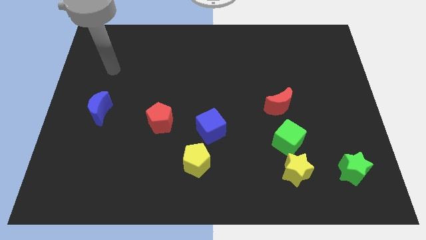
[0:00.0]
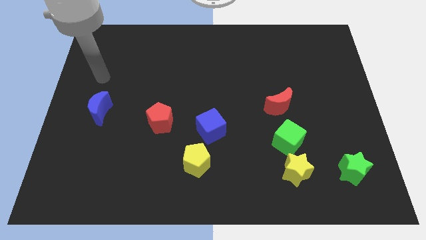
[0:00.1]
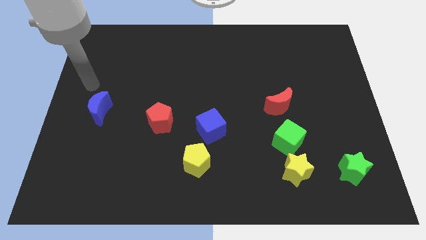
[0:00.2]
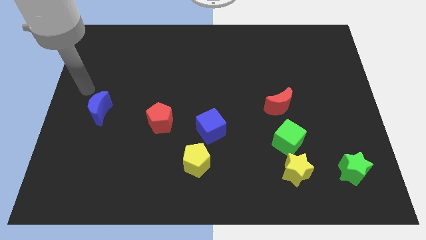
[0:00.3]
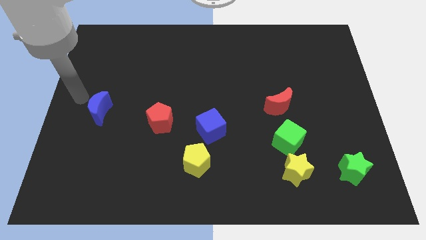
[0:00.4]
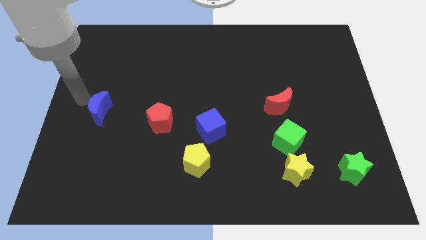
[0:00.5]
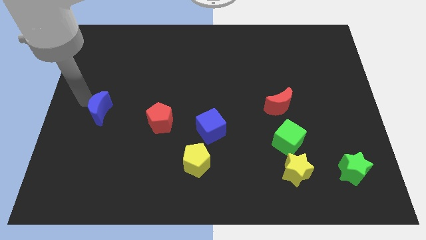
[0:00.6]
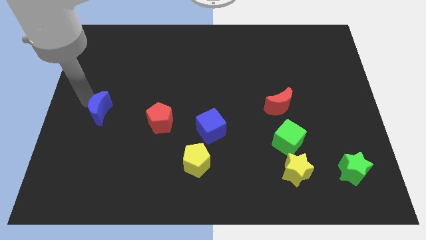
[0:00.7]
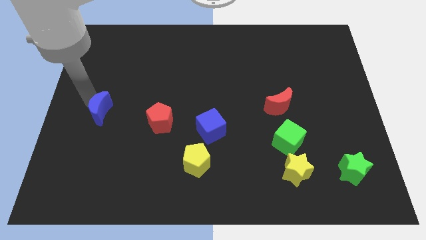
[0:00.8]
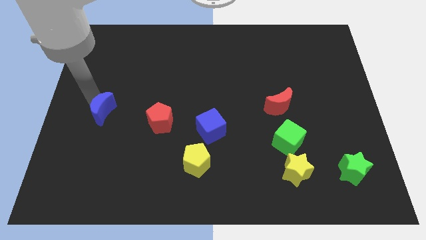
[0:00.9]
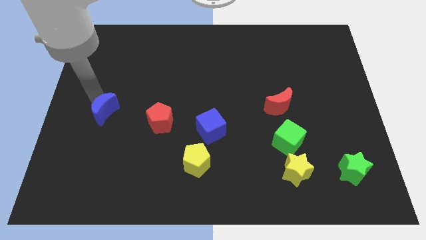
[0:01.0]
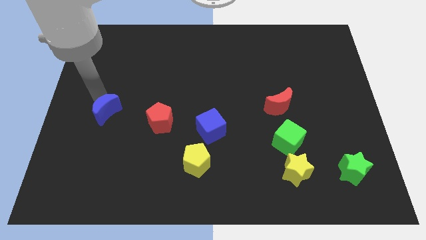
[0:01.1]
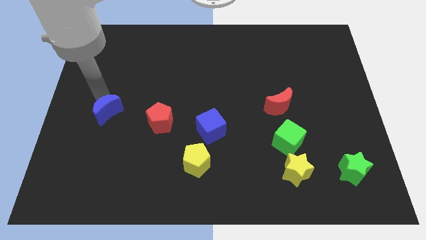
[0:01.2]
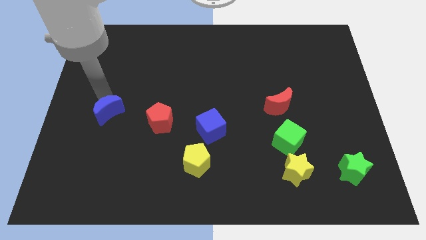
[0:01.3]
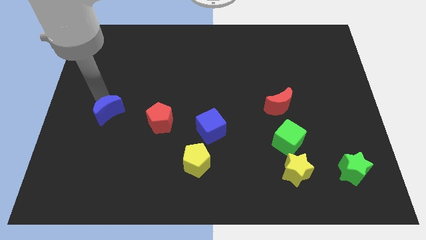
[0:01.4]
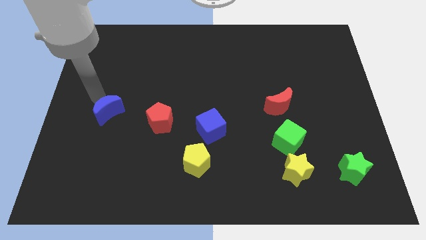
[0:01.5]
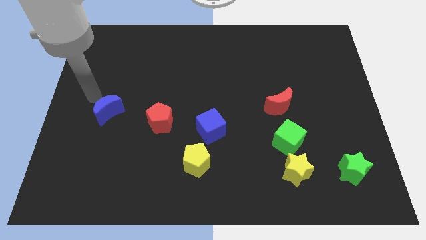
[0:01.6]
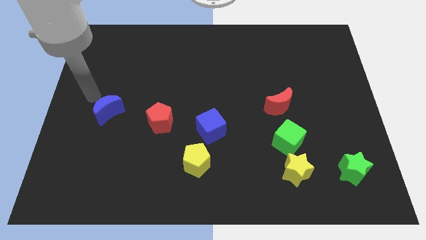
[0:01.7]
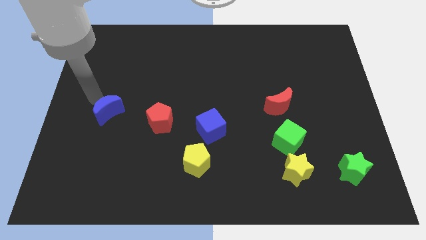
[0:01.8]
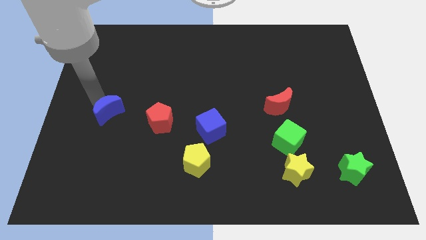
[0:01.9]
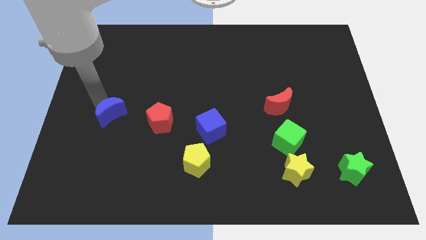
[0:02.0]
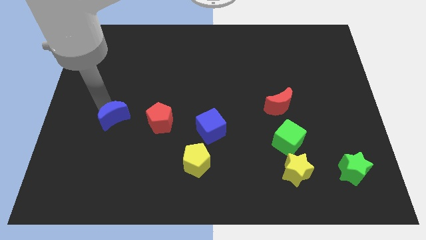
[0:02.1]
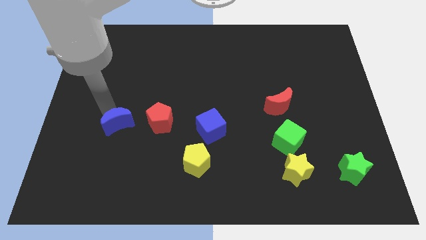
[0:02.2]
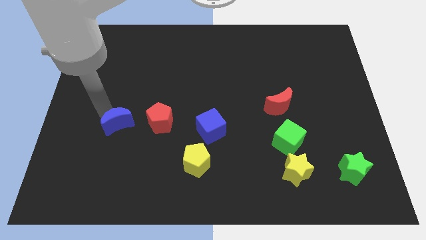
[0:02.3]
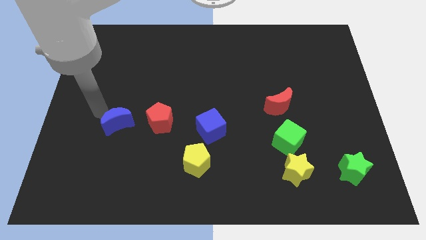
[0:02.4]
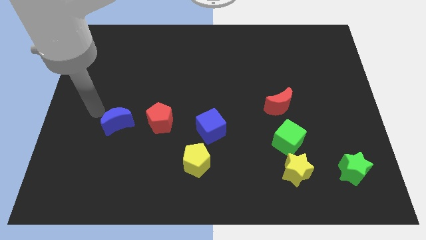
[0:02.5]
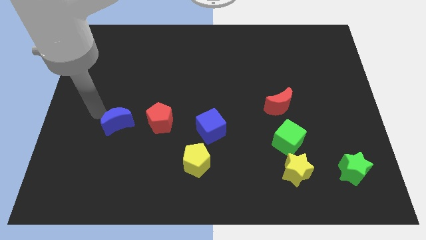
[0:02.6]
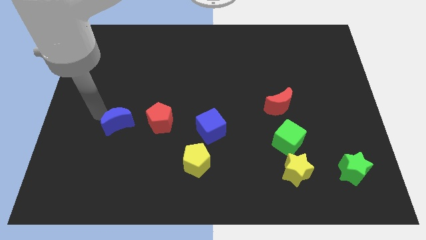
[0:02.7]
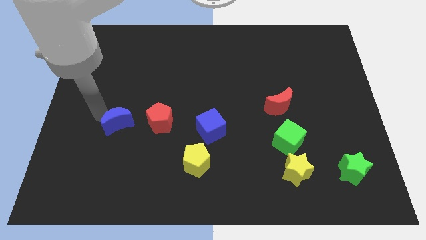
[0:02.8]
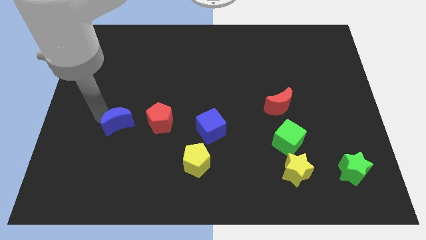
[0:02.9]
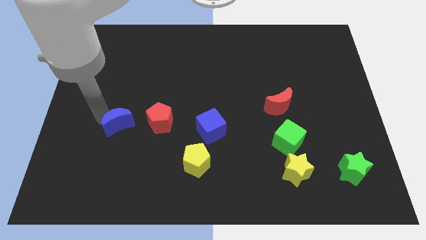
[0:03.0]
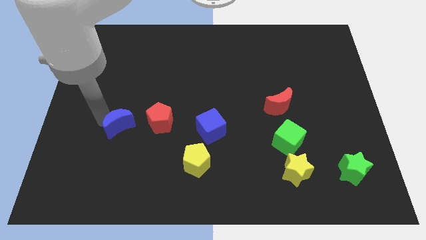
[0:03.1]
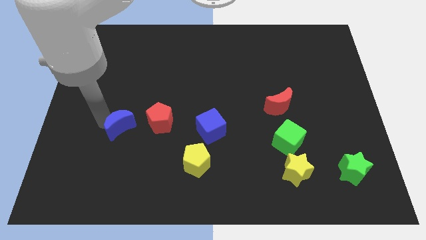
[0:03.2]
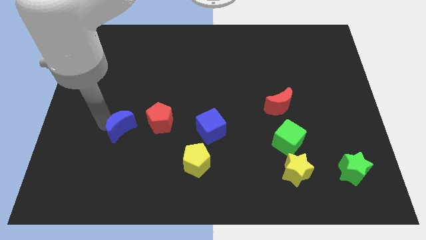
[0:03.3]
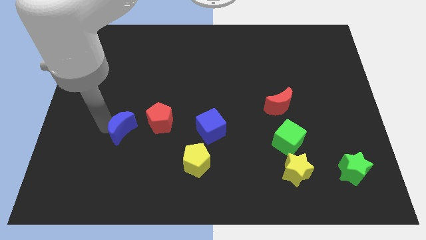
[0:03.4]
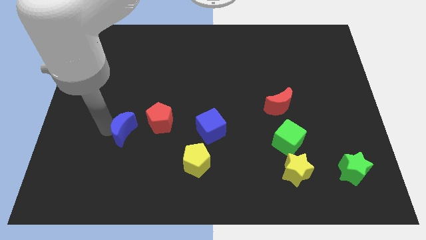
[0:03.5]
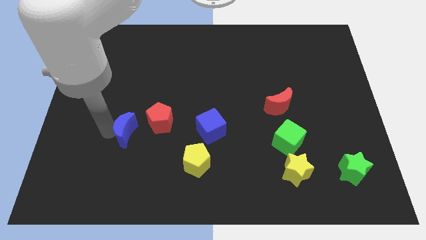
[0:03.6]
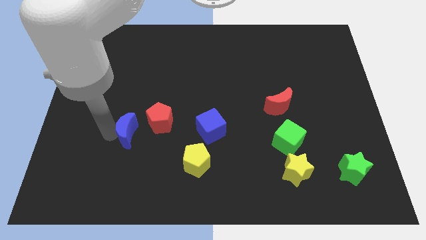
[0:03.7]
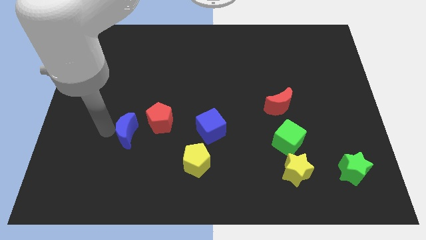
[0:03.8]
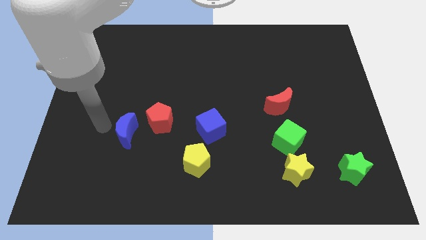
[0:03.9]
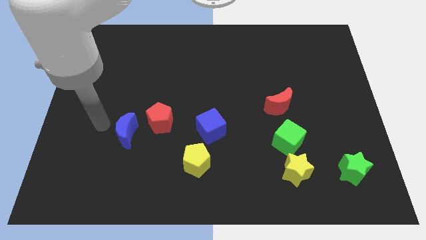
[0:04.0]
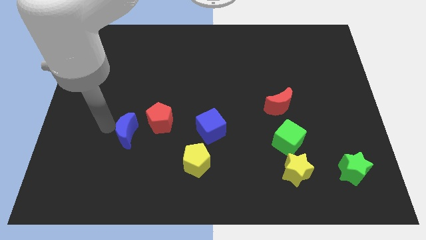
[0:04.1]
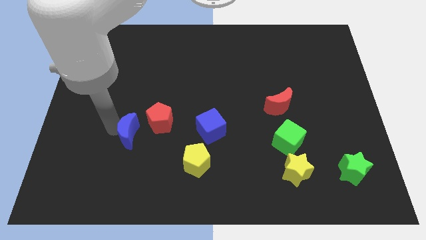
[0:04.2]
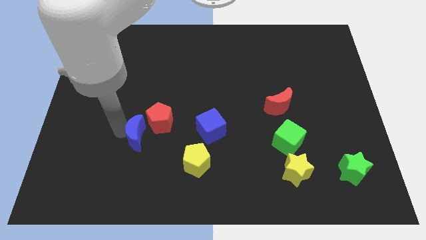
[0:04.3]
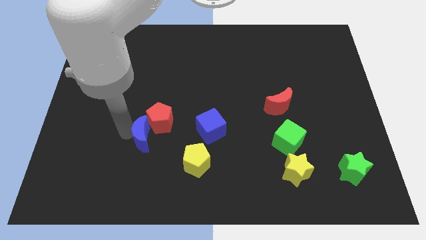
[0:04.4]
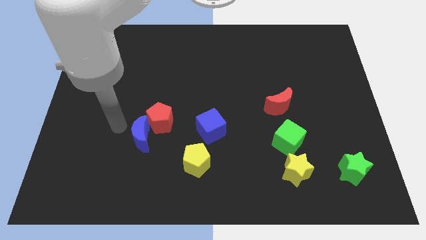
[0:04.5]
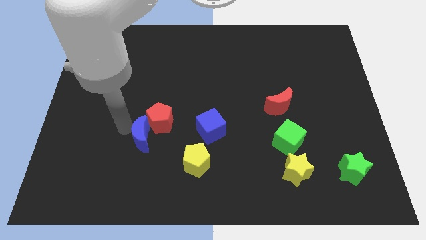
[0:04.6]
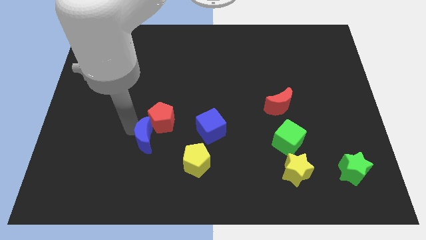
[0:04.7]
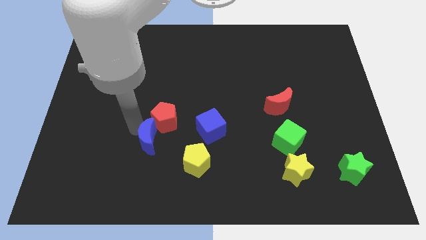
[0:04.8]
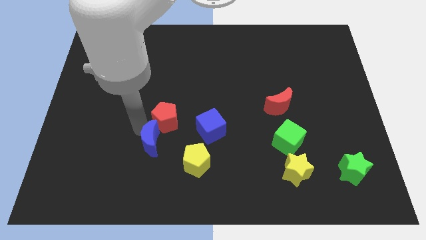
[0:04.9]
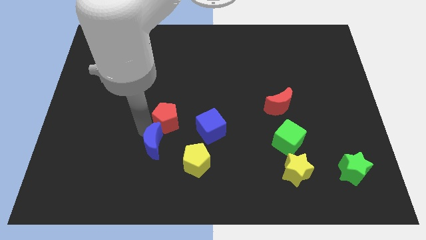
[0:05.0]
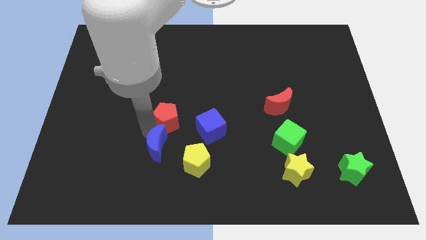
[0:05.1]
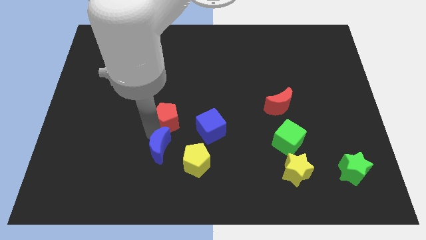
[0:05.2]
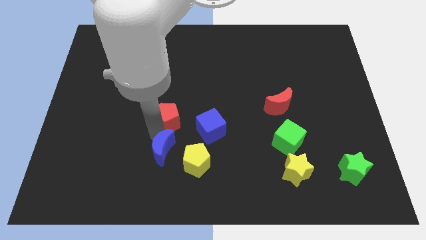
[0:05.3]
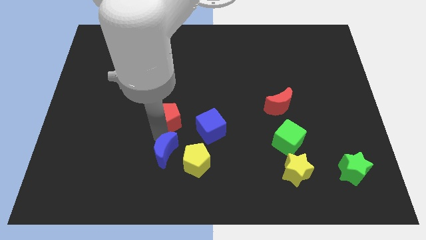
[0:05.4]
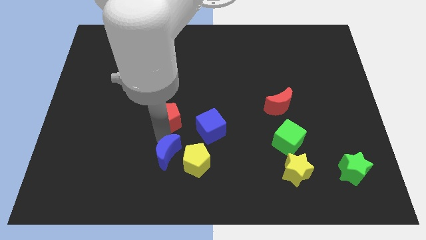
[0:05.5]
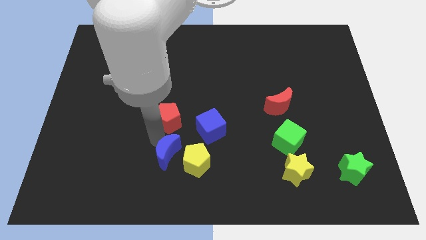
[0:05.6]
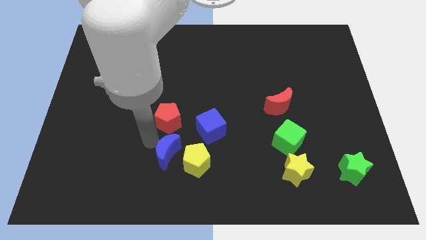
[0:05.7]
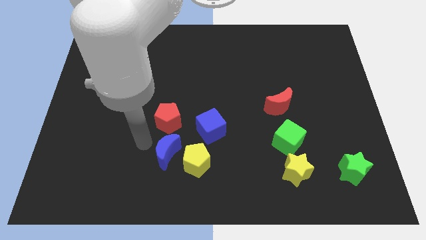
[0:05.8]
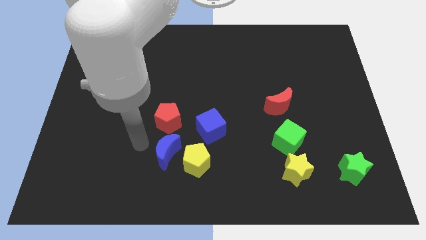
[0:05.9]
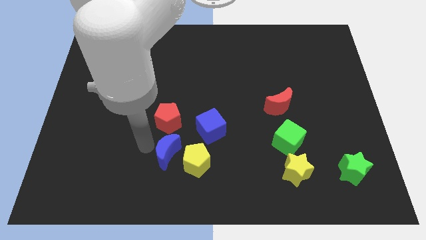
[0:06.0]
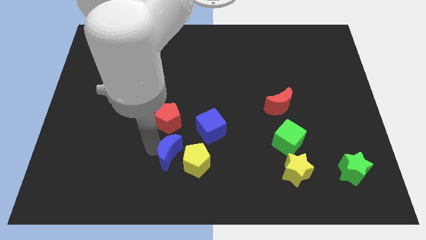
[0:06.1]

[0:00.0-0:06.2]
push the blue moon towards the yellow pentagon
